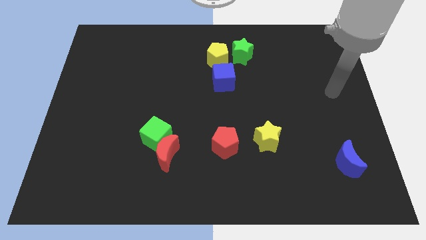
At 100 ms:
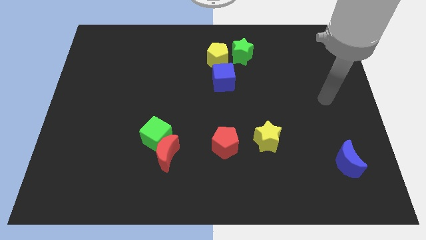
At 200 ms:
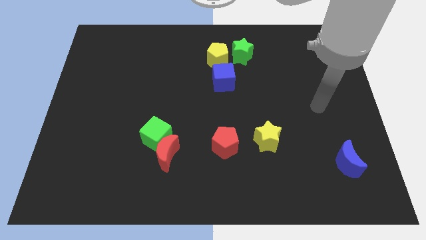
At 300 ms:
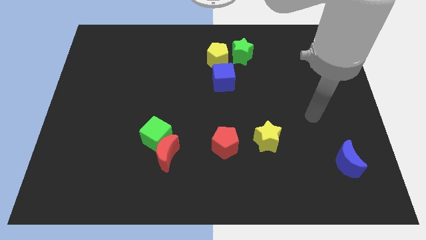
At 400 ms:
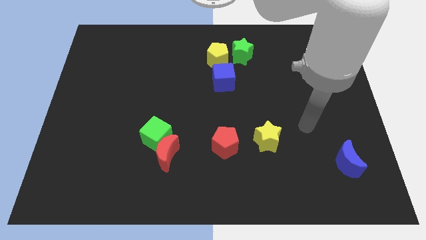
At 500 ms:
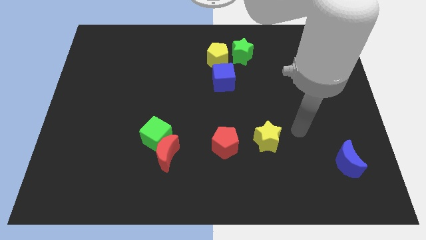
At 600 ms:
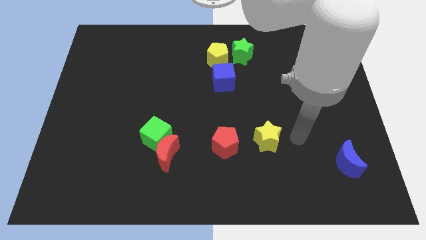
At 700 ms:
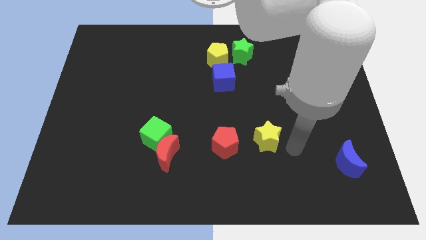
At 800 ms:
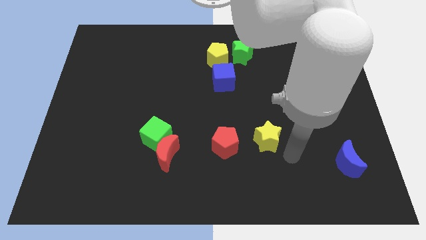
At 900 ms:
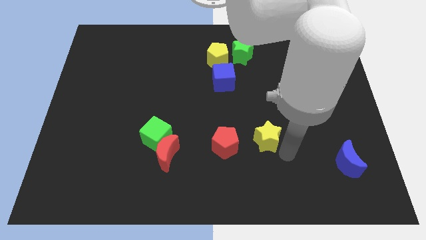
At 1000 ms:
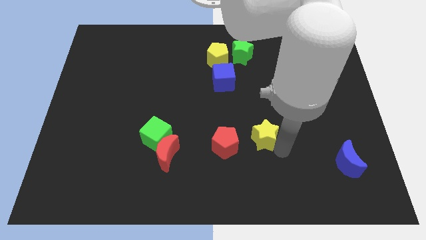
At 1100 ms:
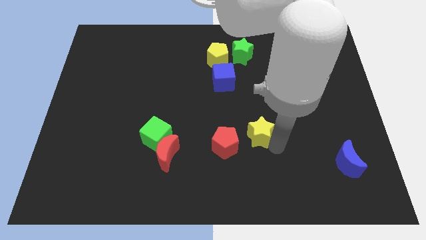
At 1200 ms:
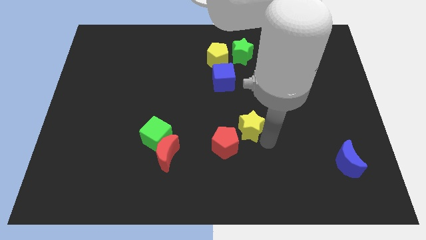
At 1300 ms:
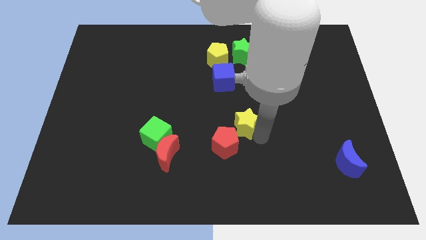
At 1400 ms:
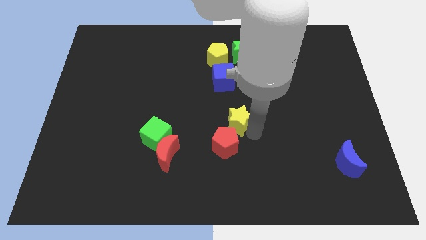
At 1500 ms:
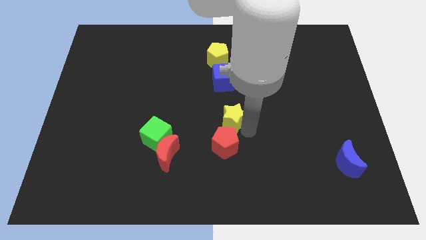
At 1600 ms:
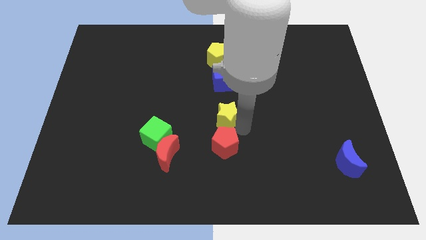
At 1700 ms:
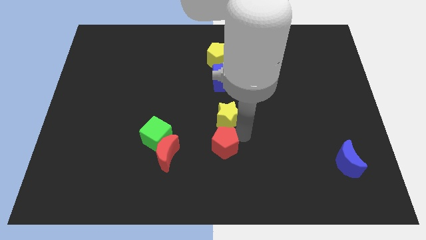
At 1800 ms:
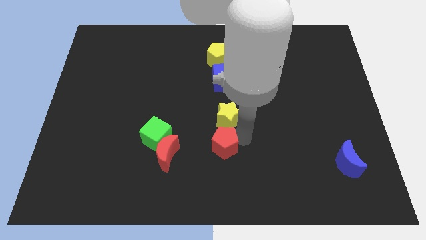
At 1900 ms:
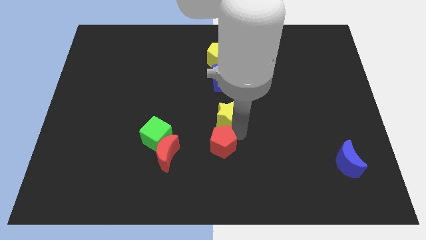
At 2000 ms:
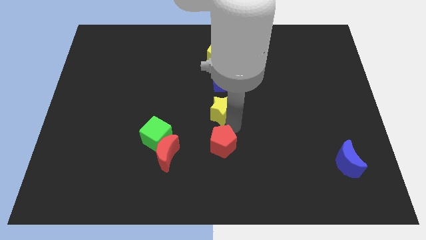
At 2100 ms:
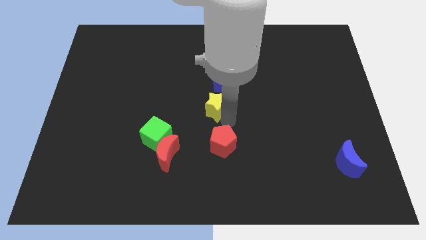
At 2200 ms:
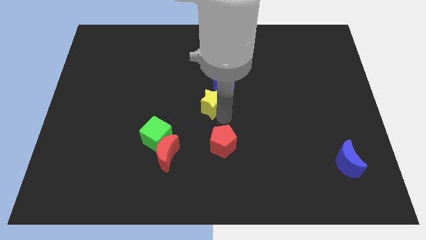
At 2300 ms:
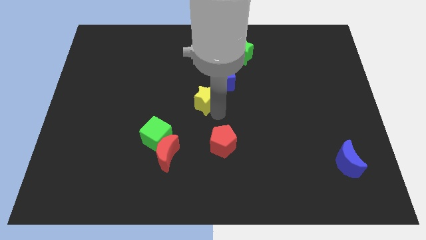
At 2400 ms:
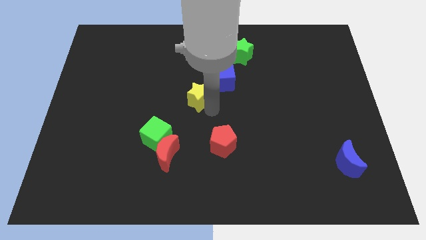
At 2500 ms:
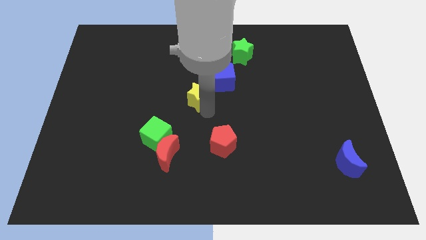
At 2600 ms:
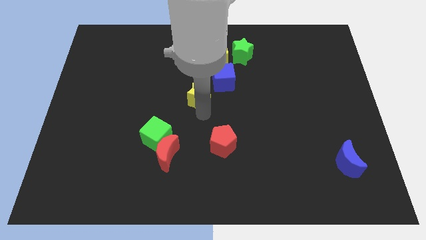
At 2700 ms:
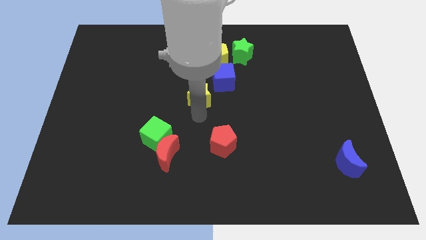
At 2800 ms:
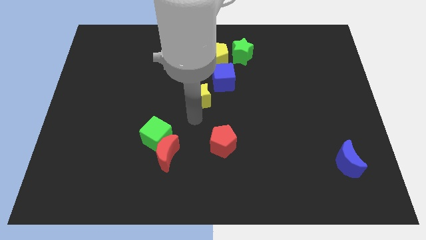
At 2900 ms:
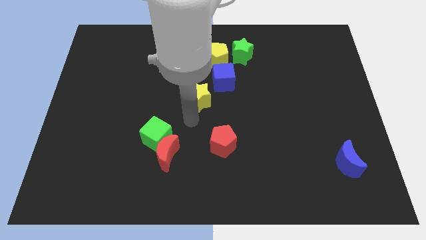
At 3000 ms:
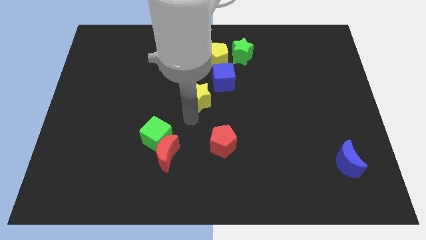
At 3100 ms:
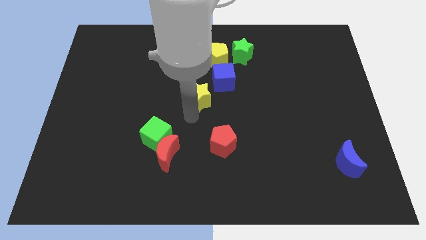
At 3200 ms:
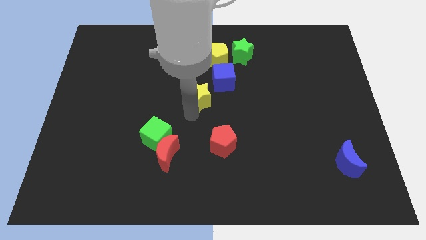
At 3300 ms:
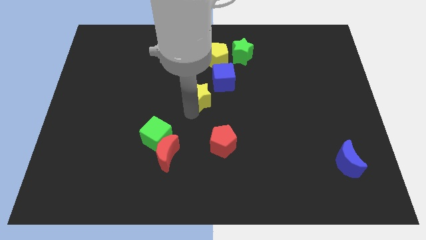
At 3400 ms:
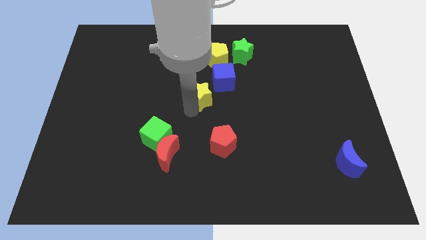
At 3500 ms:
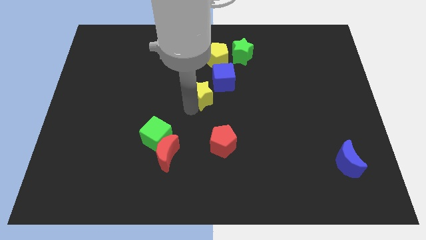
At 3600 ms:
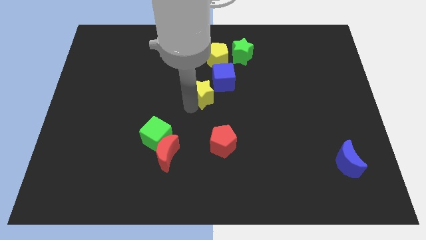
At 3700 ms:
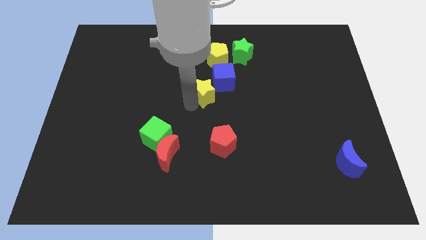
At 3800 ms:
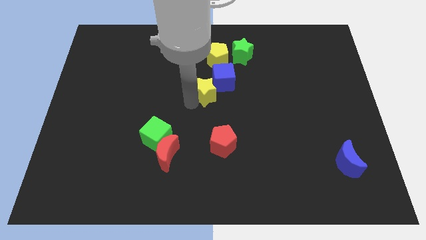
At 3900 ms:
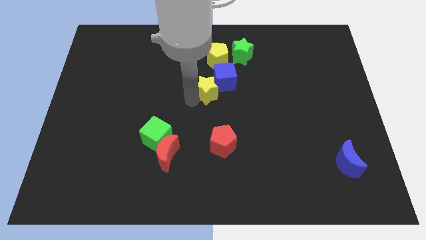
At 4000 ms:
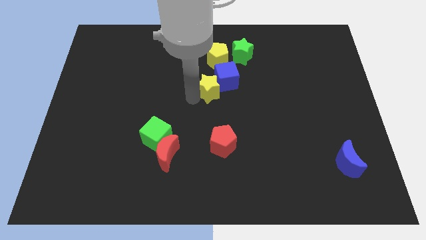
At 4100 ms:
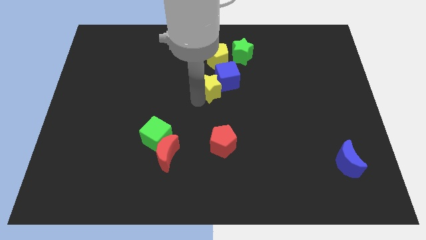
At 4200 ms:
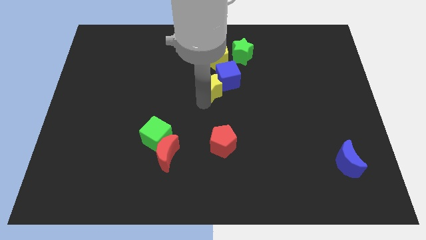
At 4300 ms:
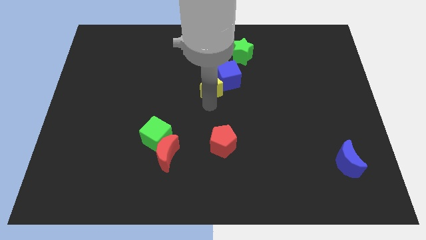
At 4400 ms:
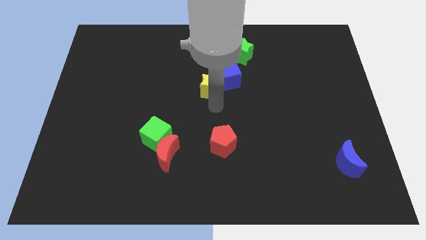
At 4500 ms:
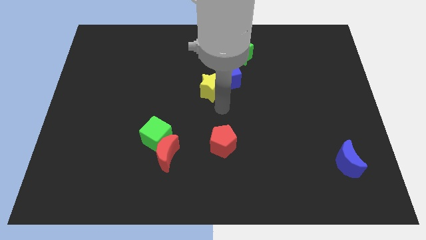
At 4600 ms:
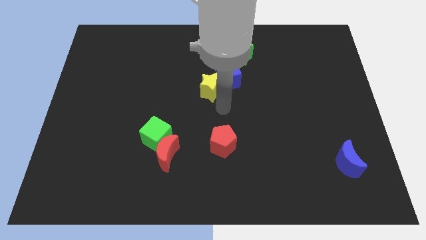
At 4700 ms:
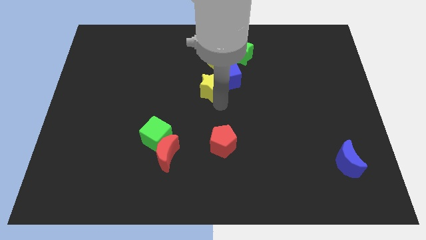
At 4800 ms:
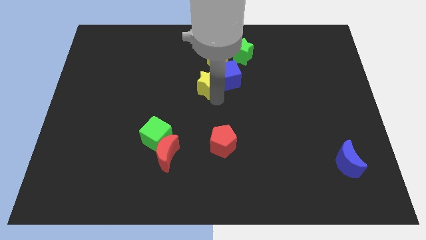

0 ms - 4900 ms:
put the yellow star to the bottom left side of the yellow pentagon

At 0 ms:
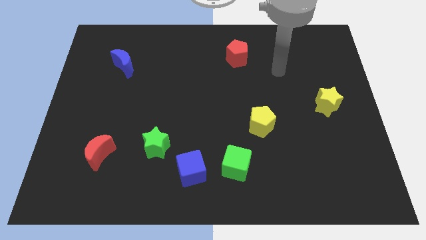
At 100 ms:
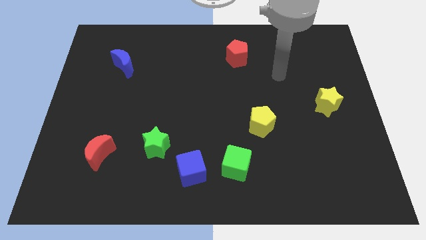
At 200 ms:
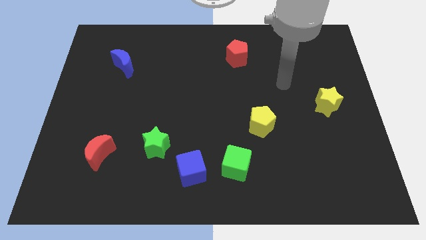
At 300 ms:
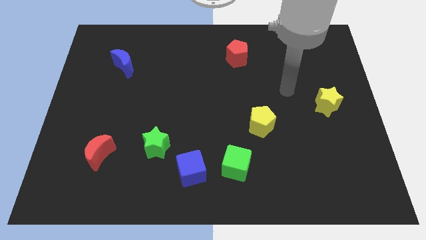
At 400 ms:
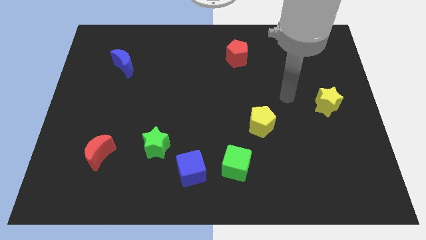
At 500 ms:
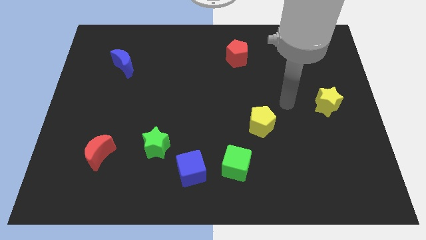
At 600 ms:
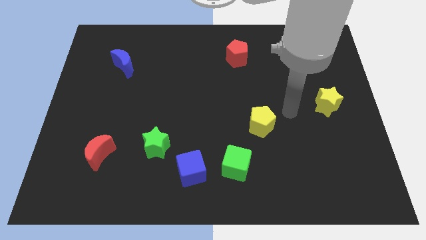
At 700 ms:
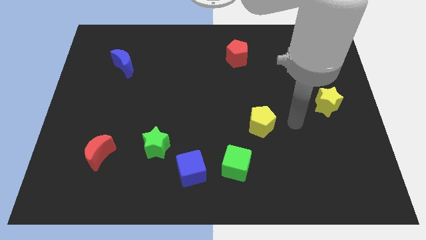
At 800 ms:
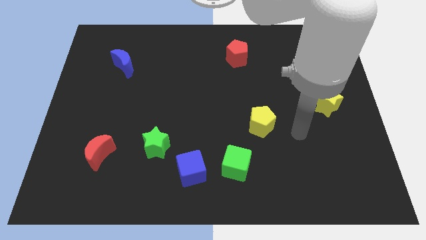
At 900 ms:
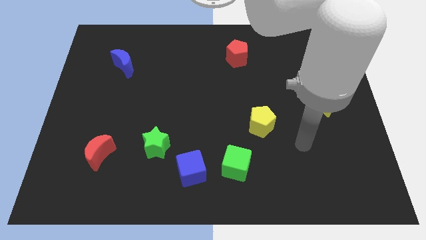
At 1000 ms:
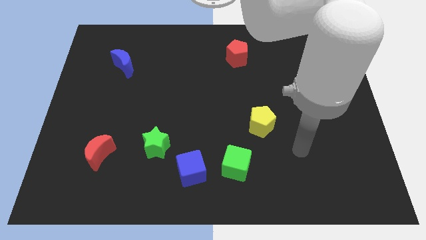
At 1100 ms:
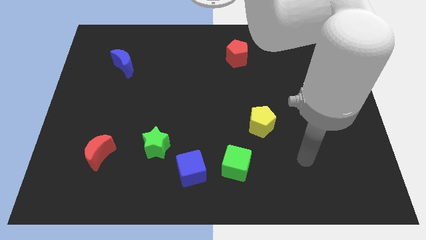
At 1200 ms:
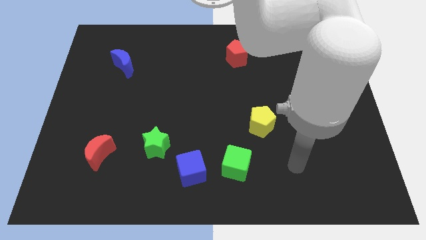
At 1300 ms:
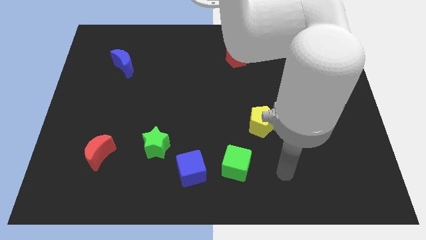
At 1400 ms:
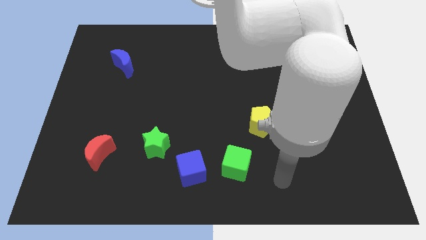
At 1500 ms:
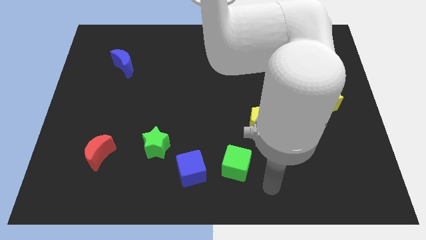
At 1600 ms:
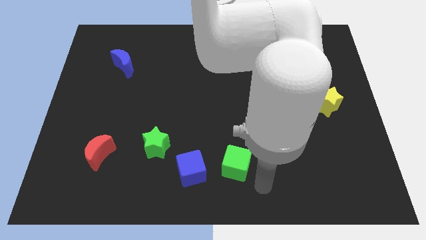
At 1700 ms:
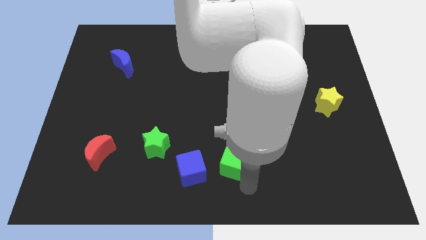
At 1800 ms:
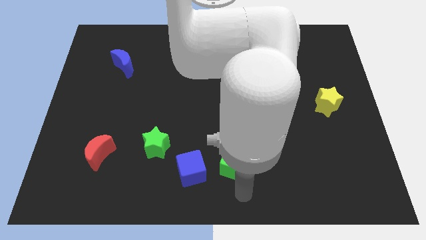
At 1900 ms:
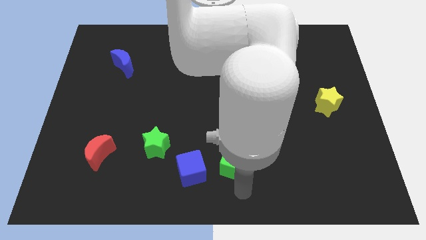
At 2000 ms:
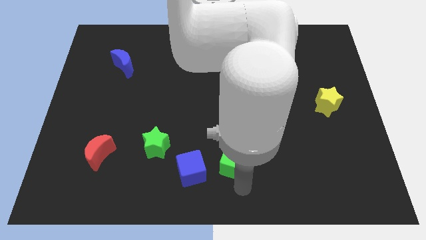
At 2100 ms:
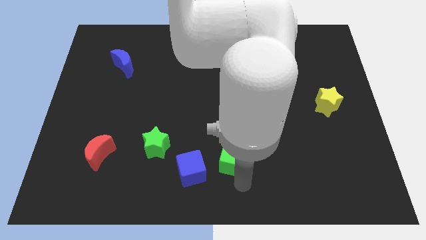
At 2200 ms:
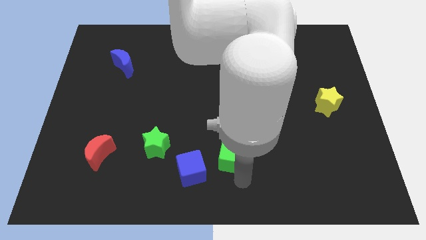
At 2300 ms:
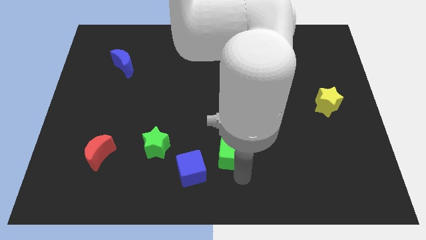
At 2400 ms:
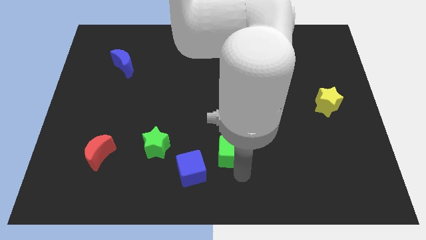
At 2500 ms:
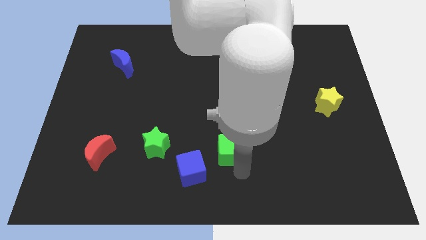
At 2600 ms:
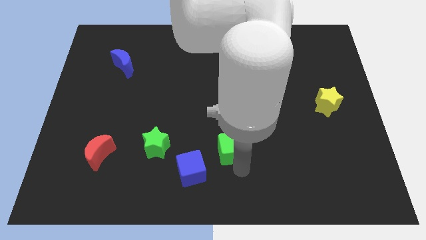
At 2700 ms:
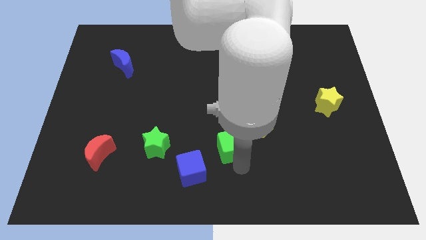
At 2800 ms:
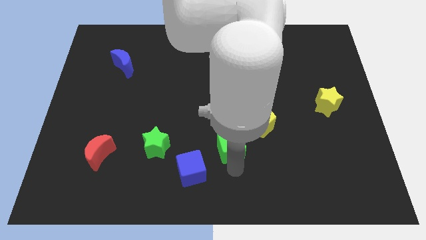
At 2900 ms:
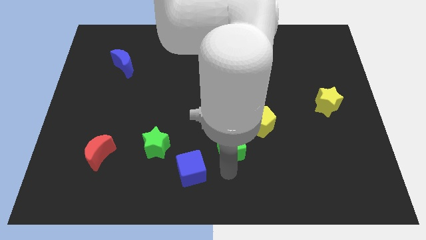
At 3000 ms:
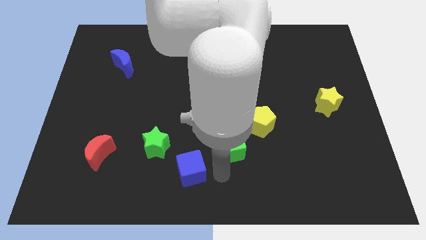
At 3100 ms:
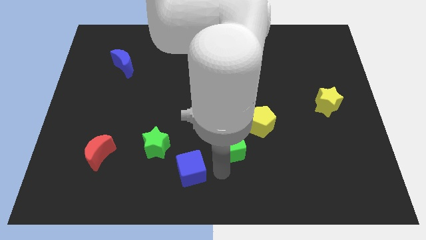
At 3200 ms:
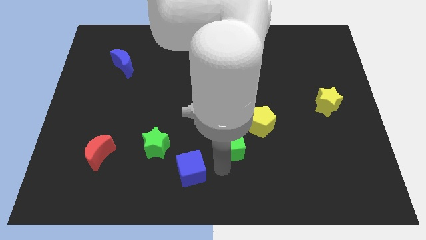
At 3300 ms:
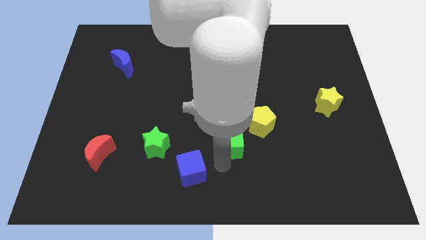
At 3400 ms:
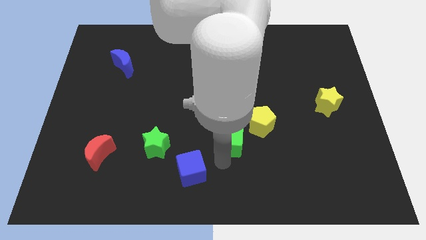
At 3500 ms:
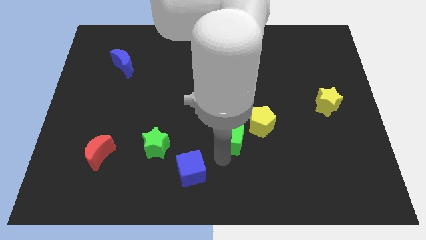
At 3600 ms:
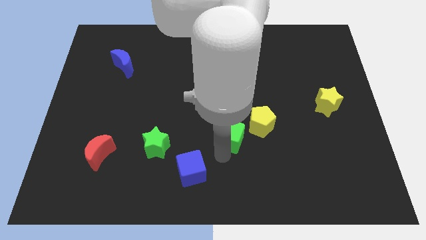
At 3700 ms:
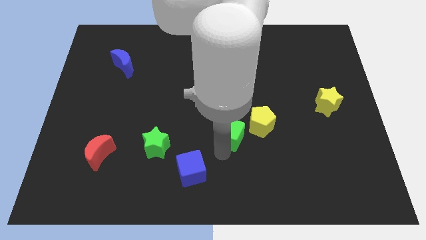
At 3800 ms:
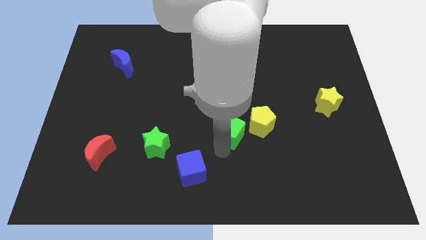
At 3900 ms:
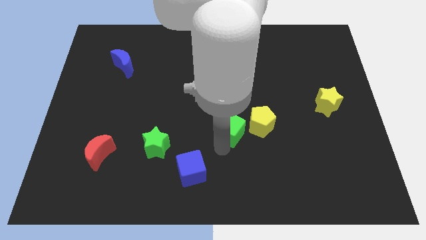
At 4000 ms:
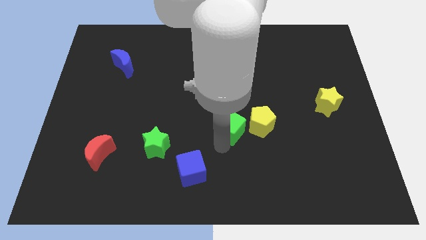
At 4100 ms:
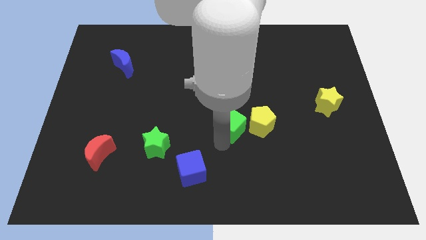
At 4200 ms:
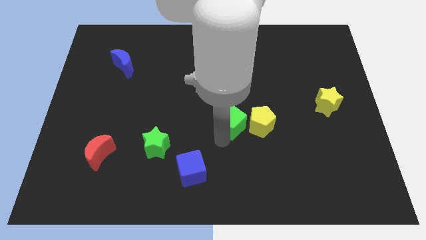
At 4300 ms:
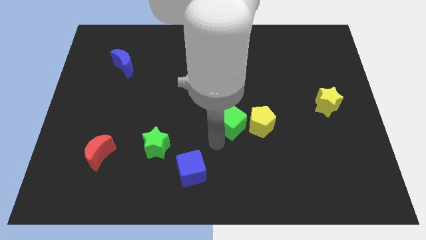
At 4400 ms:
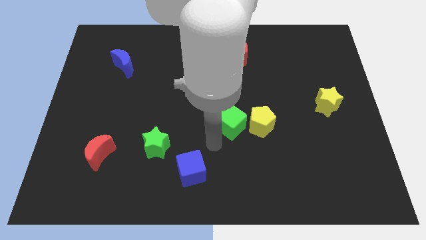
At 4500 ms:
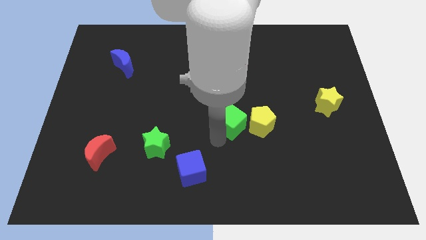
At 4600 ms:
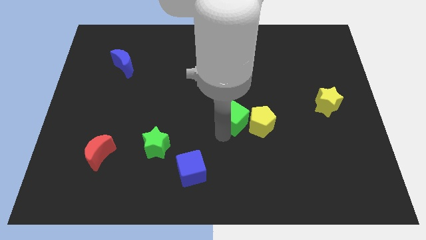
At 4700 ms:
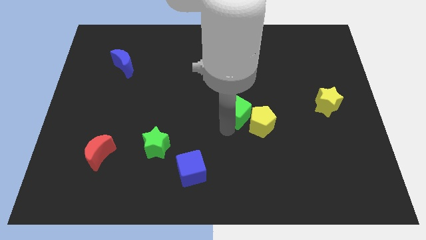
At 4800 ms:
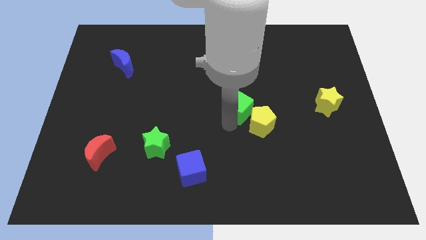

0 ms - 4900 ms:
move the green cube above the yellow pentagon
